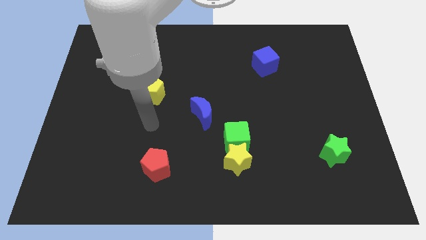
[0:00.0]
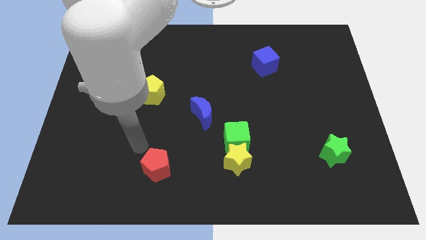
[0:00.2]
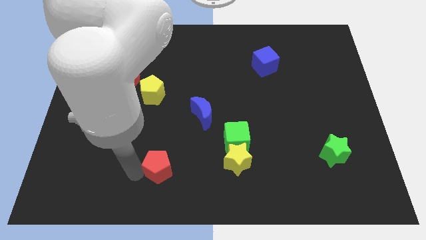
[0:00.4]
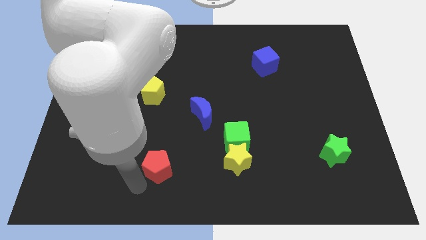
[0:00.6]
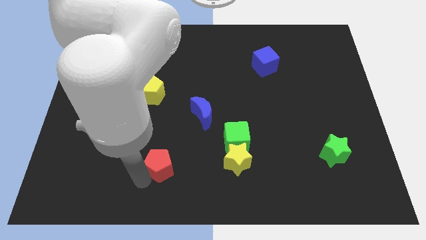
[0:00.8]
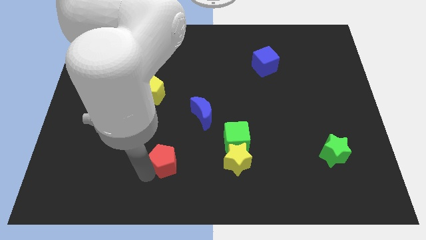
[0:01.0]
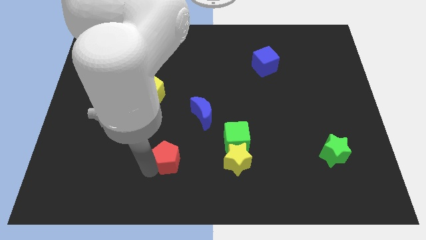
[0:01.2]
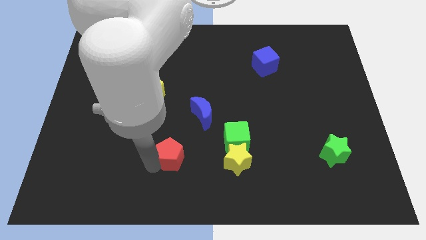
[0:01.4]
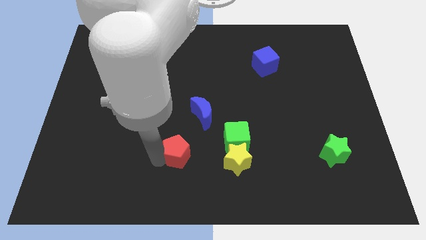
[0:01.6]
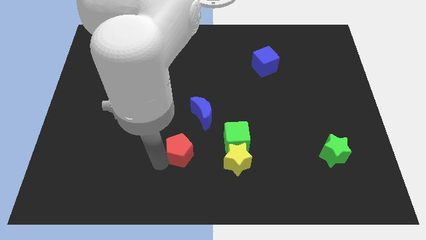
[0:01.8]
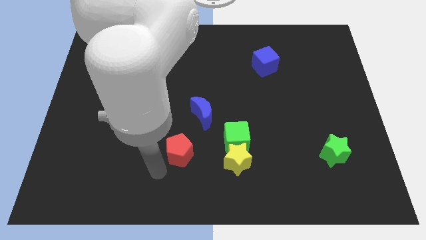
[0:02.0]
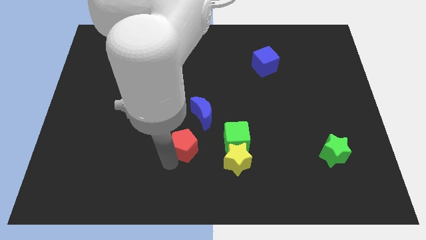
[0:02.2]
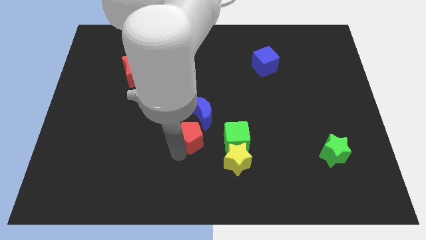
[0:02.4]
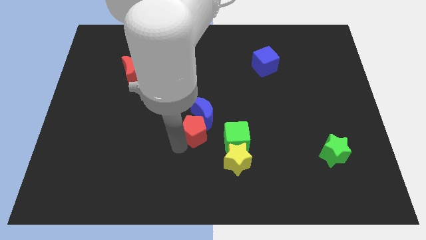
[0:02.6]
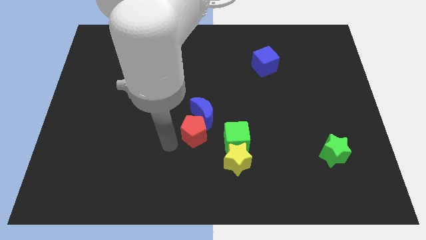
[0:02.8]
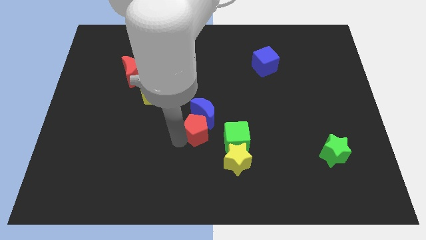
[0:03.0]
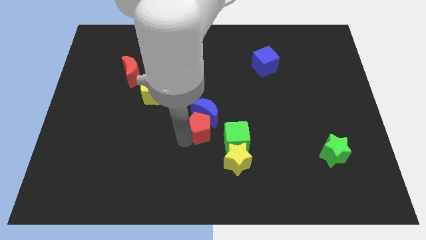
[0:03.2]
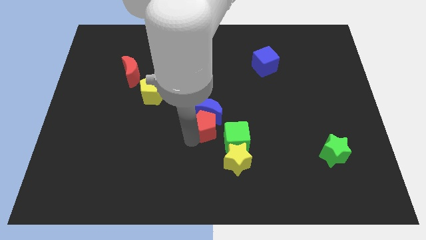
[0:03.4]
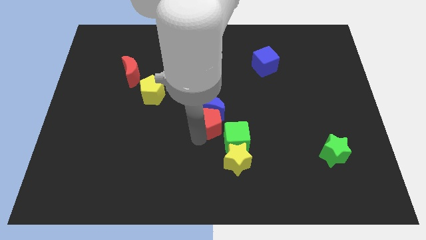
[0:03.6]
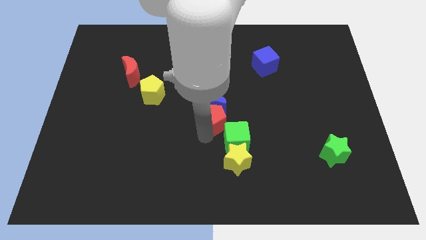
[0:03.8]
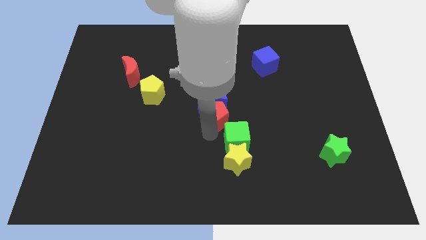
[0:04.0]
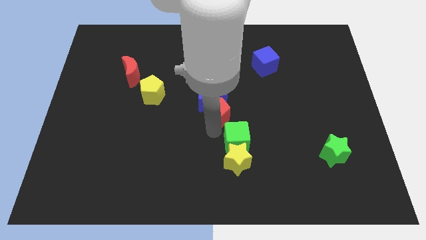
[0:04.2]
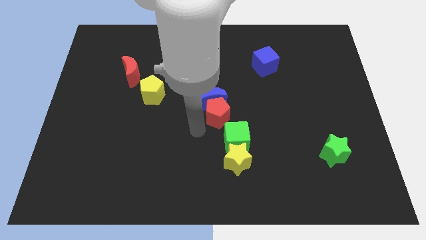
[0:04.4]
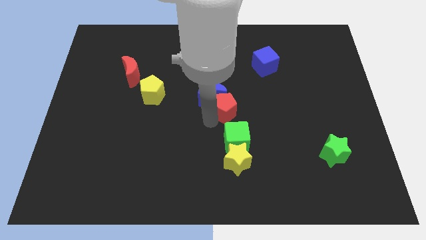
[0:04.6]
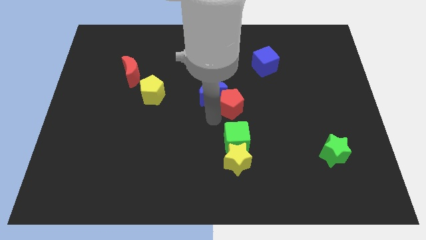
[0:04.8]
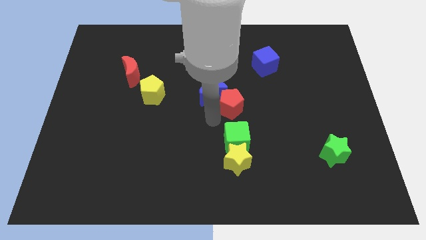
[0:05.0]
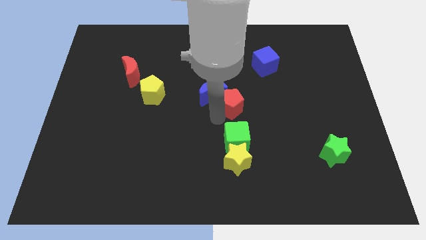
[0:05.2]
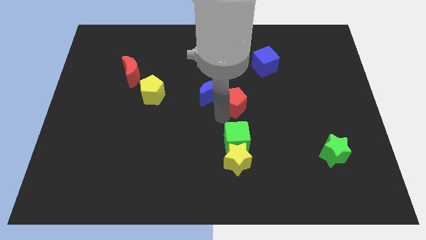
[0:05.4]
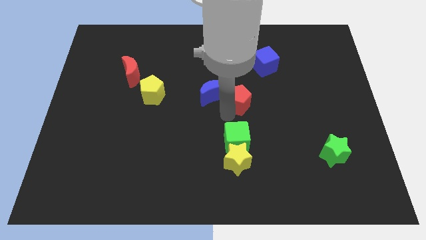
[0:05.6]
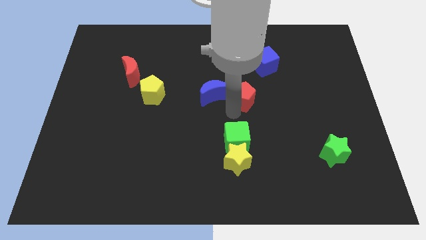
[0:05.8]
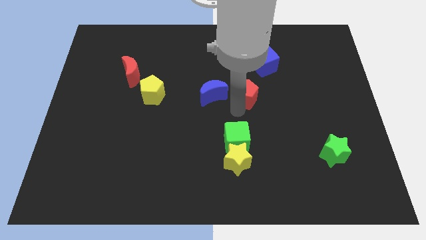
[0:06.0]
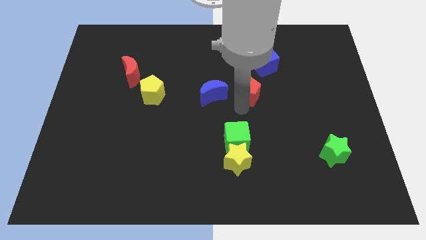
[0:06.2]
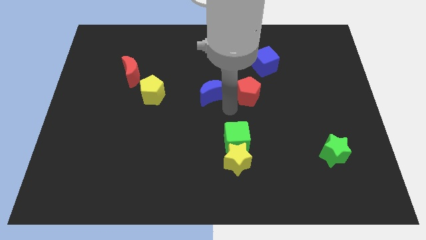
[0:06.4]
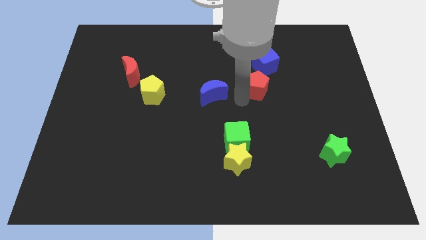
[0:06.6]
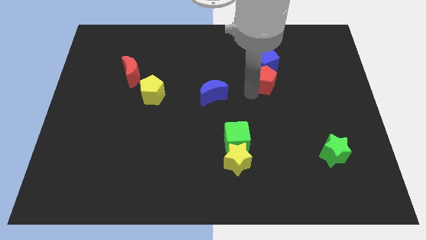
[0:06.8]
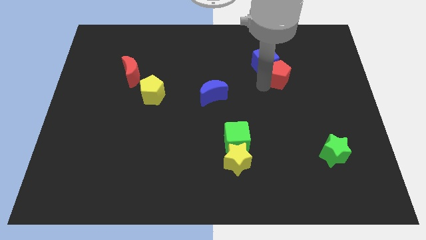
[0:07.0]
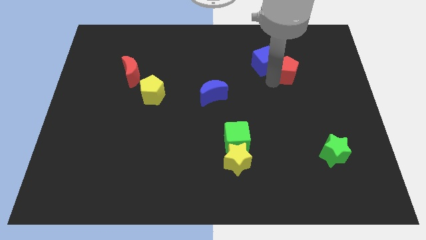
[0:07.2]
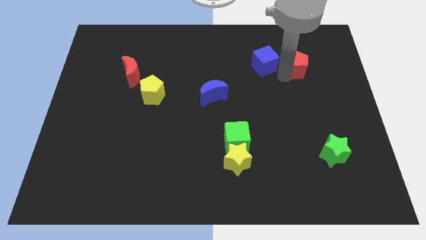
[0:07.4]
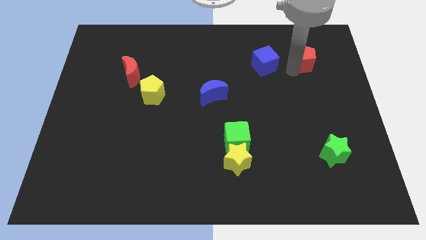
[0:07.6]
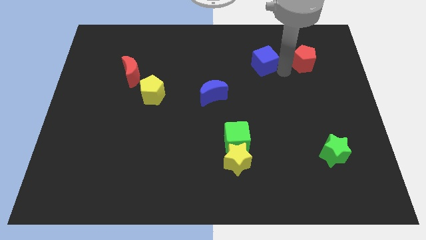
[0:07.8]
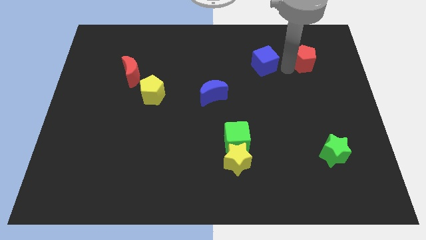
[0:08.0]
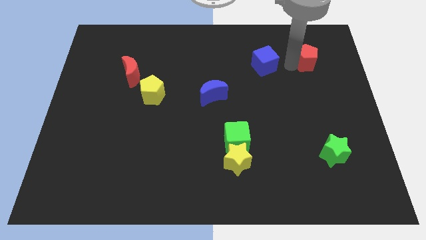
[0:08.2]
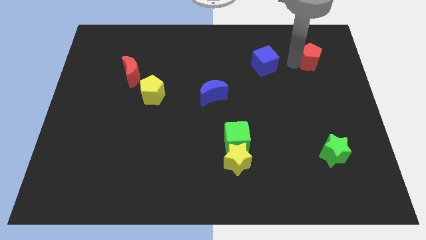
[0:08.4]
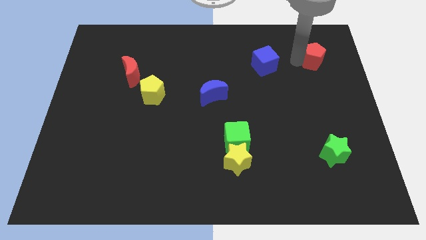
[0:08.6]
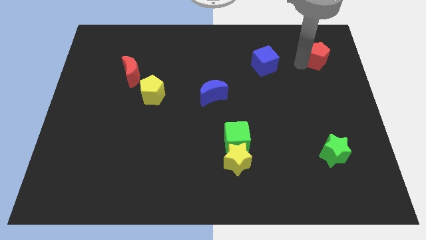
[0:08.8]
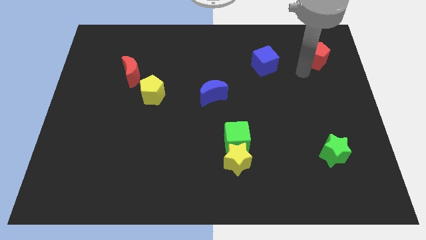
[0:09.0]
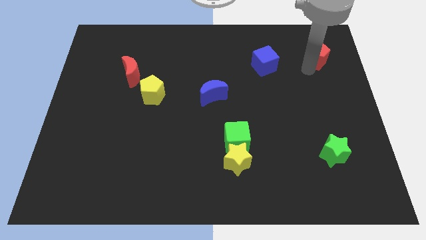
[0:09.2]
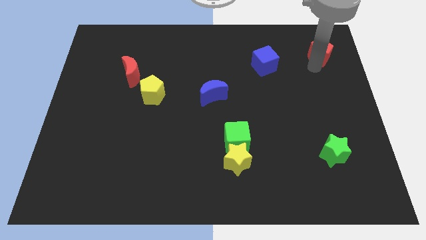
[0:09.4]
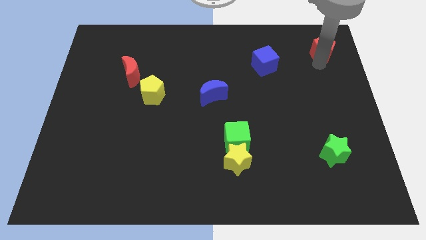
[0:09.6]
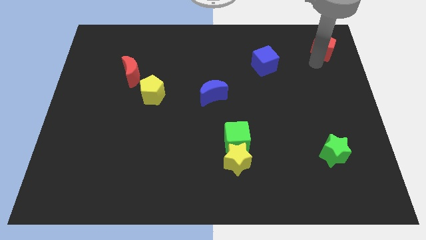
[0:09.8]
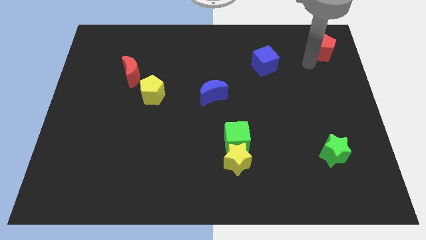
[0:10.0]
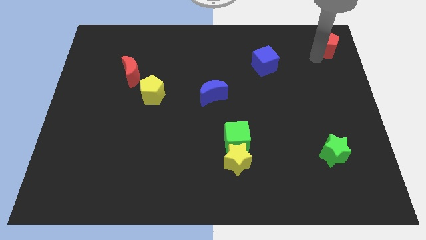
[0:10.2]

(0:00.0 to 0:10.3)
slide the red pentagon to the top right of the board
